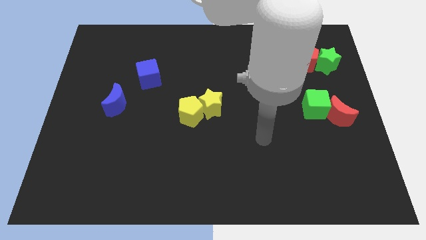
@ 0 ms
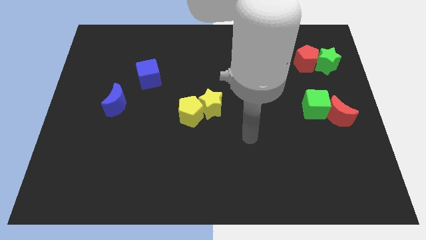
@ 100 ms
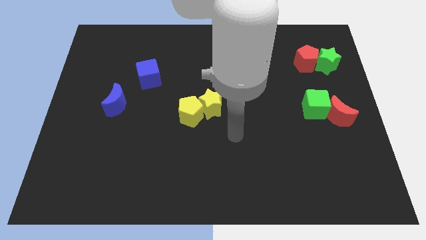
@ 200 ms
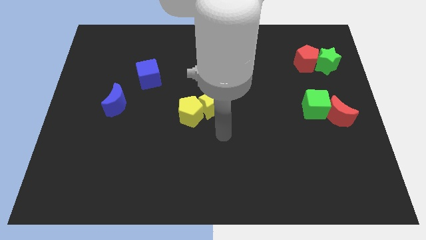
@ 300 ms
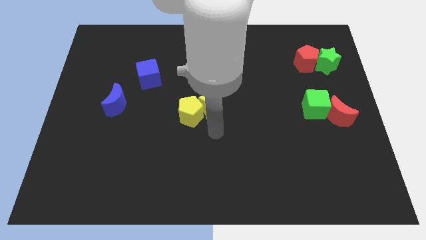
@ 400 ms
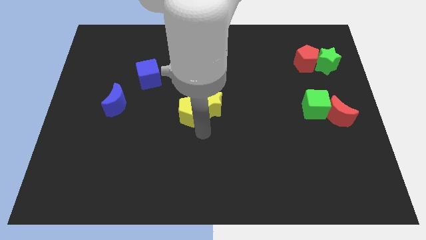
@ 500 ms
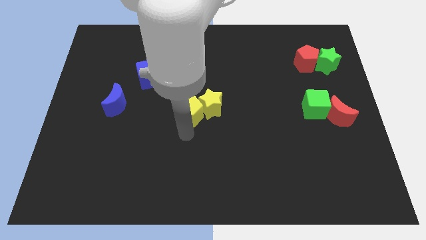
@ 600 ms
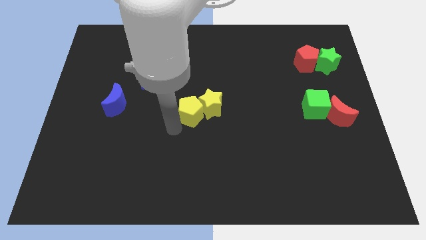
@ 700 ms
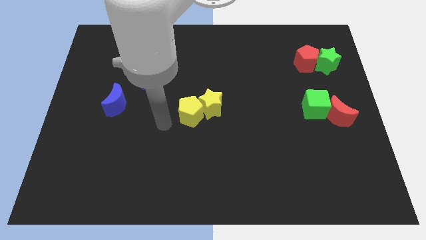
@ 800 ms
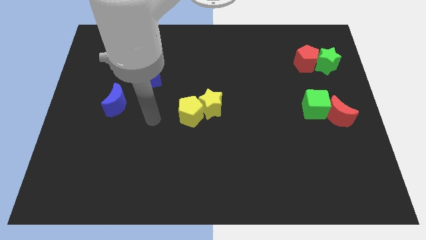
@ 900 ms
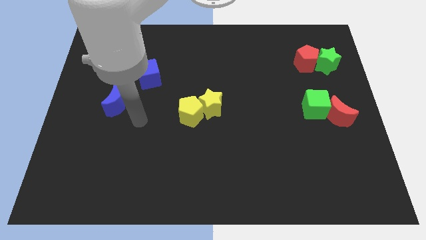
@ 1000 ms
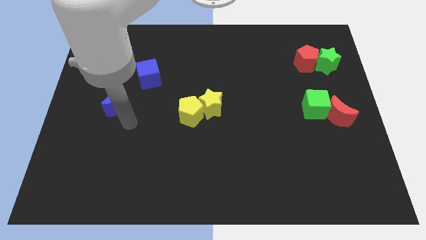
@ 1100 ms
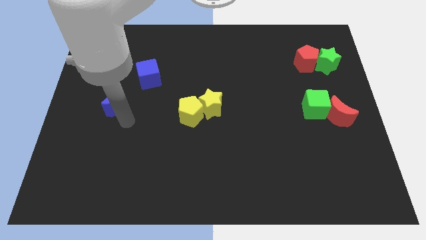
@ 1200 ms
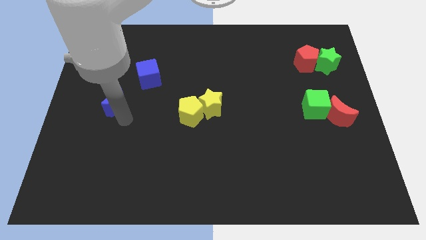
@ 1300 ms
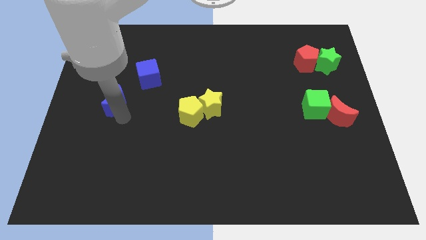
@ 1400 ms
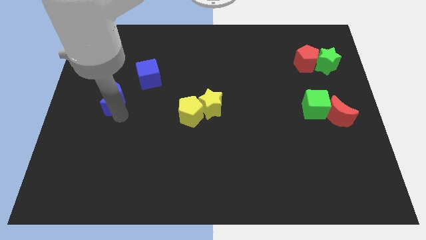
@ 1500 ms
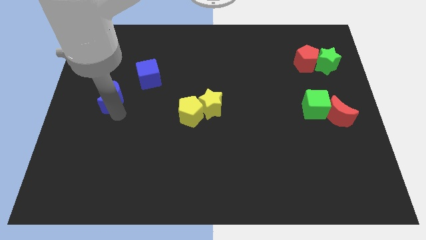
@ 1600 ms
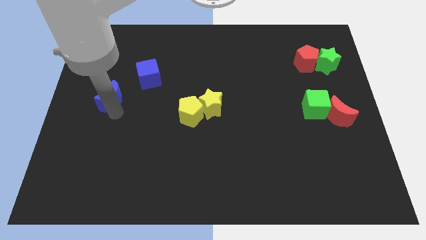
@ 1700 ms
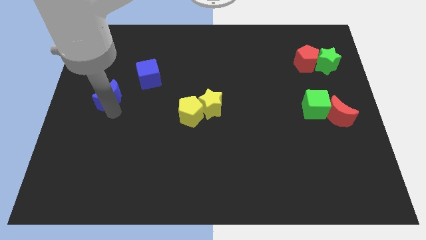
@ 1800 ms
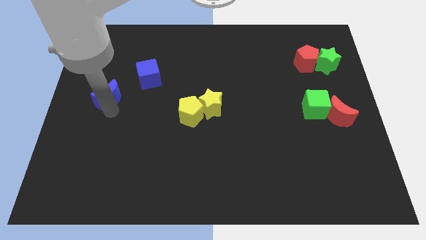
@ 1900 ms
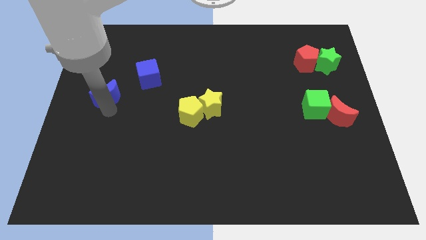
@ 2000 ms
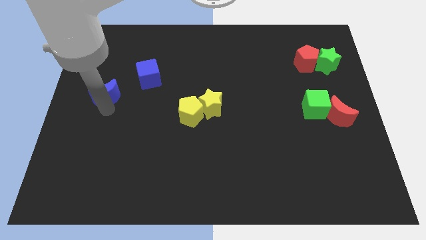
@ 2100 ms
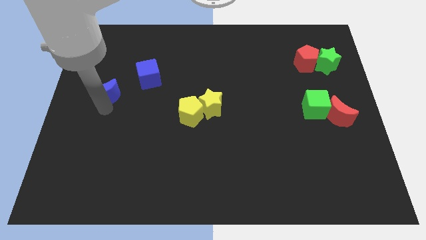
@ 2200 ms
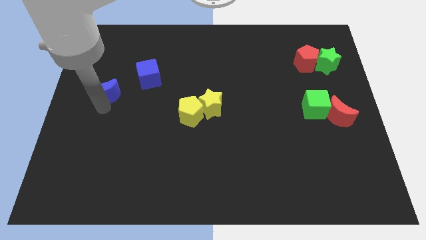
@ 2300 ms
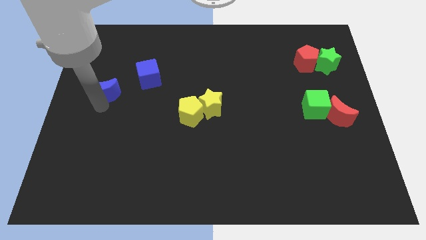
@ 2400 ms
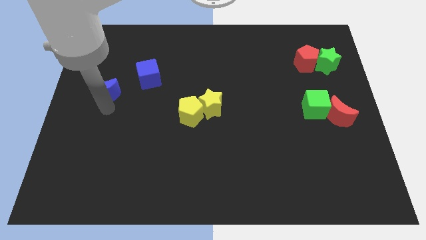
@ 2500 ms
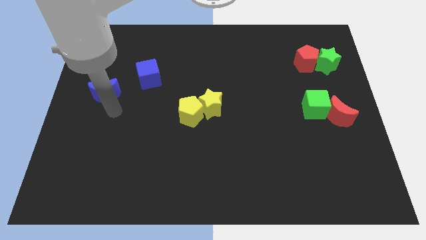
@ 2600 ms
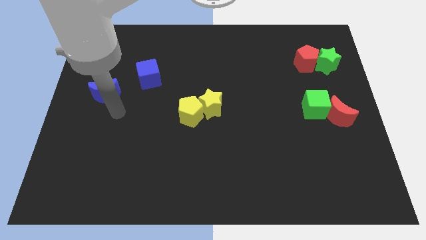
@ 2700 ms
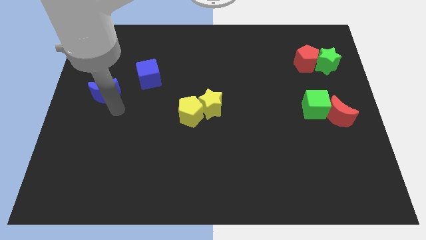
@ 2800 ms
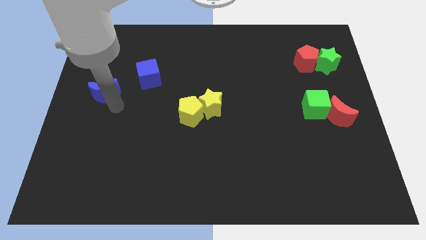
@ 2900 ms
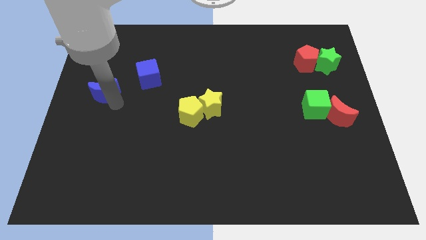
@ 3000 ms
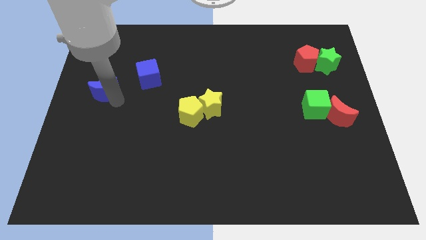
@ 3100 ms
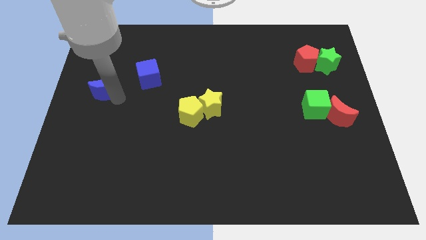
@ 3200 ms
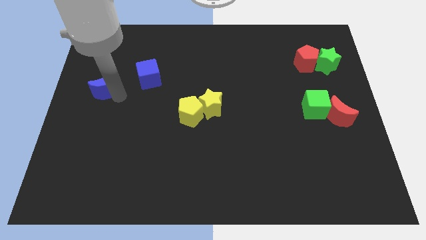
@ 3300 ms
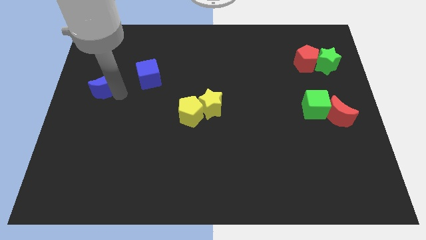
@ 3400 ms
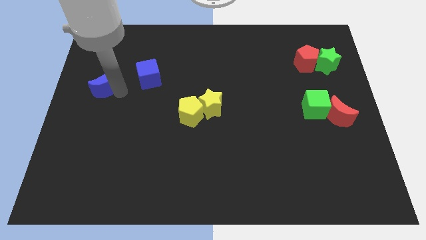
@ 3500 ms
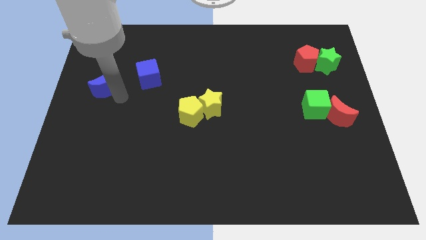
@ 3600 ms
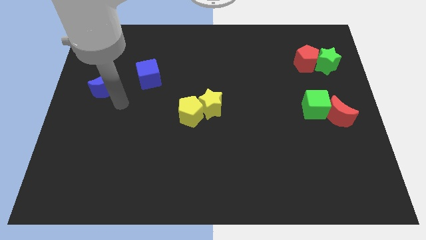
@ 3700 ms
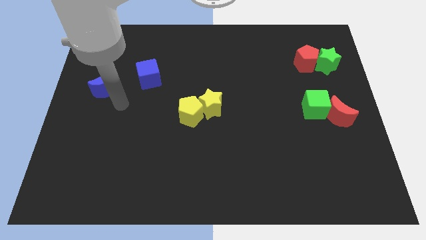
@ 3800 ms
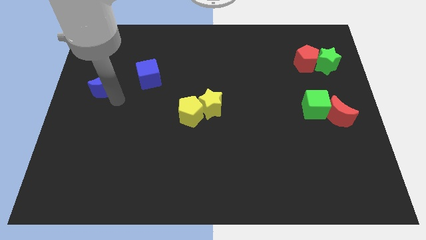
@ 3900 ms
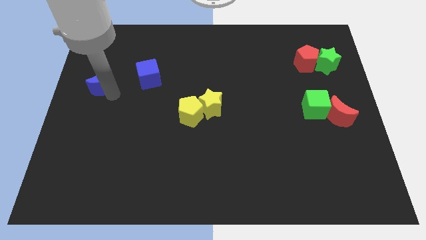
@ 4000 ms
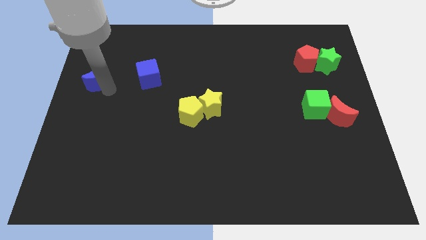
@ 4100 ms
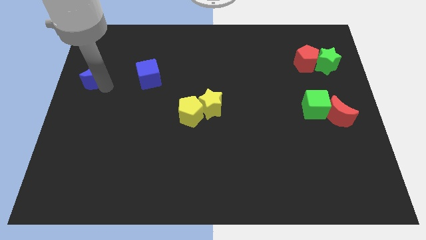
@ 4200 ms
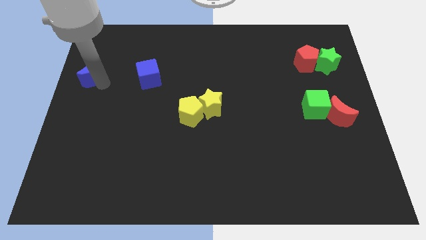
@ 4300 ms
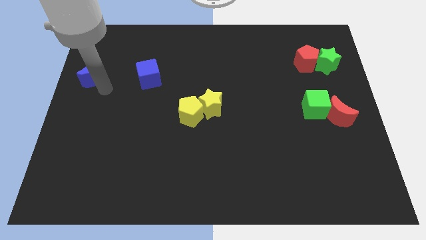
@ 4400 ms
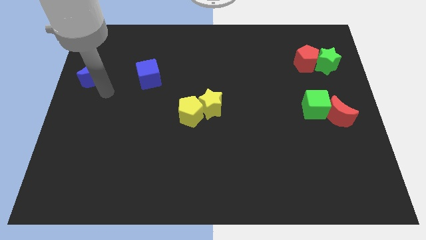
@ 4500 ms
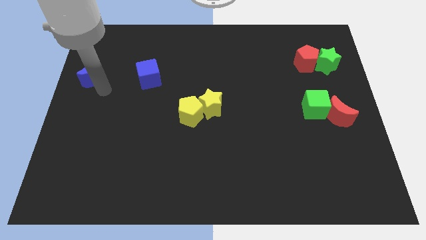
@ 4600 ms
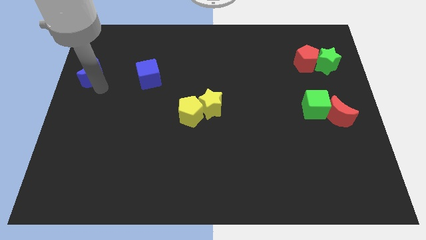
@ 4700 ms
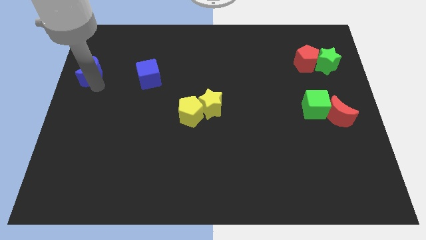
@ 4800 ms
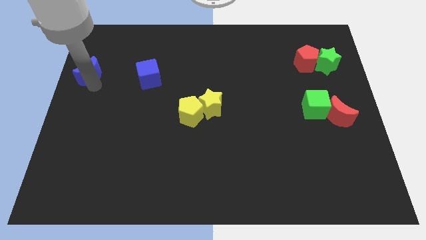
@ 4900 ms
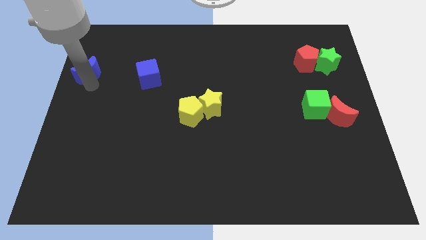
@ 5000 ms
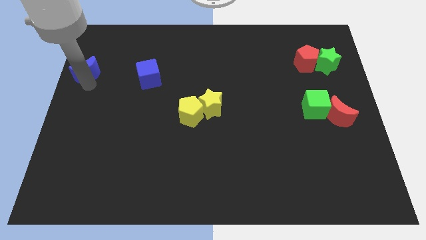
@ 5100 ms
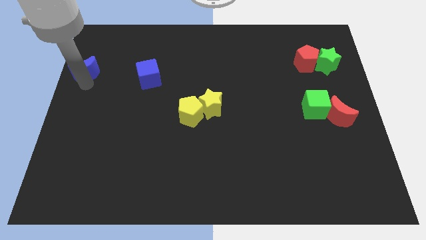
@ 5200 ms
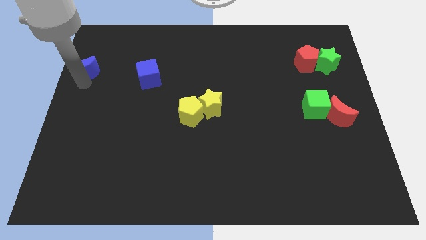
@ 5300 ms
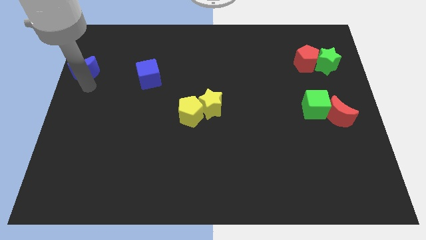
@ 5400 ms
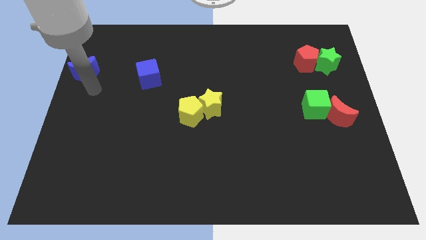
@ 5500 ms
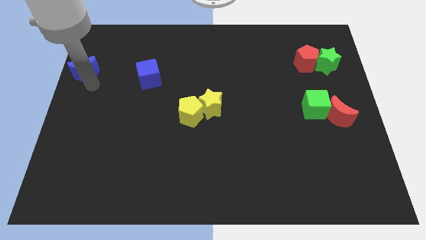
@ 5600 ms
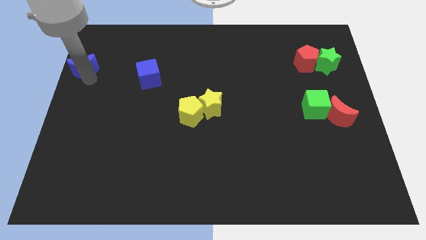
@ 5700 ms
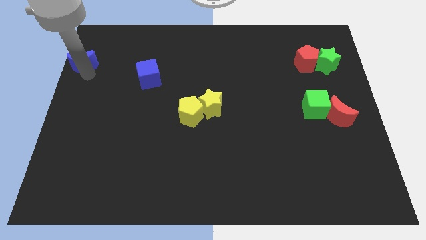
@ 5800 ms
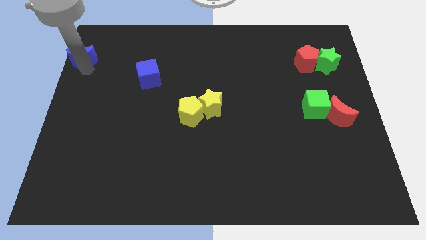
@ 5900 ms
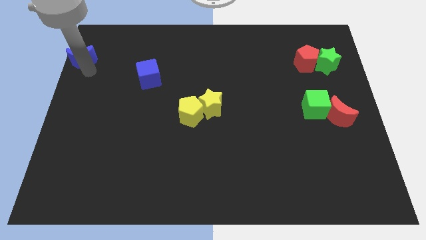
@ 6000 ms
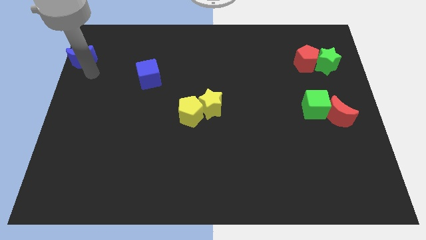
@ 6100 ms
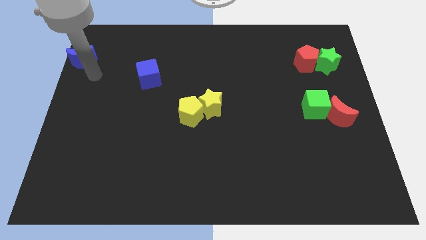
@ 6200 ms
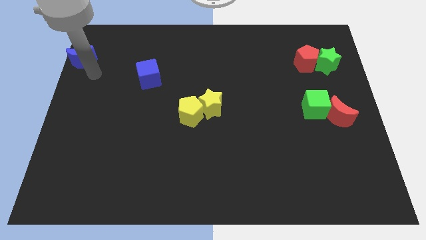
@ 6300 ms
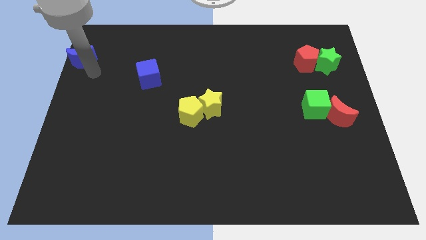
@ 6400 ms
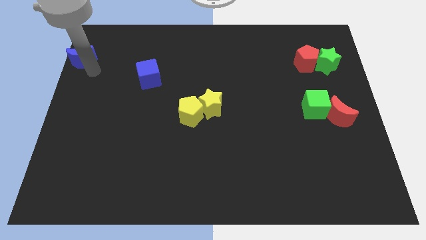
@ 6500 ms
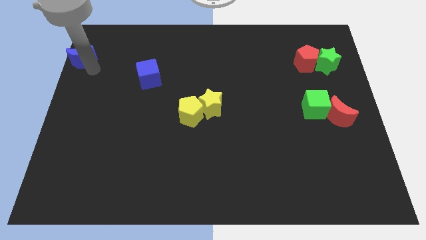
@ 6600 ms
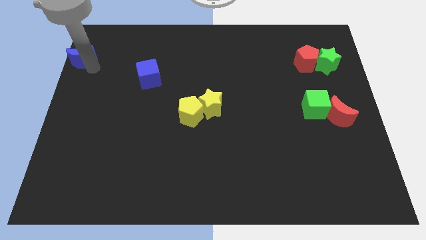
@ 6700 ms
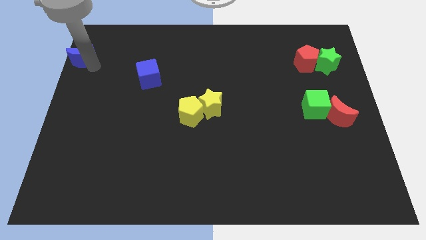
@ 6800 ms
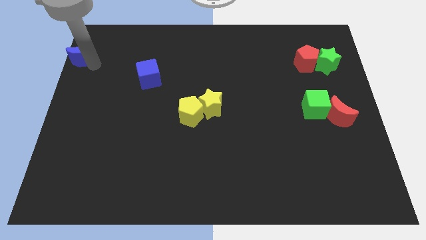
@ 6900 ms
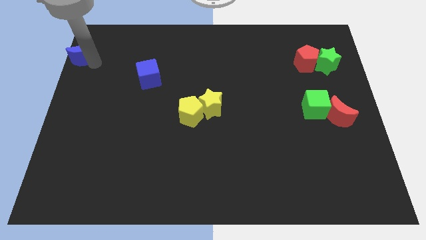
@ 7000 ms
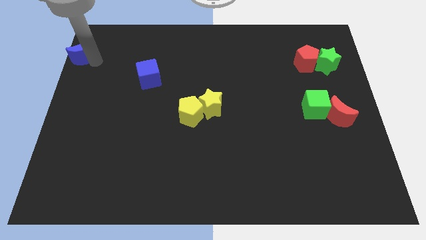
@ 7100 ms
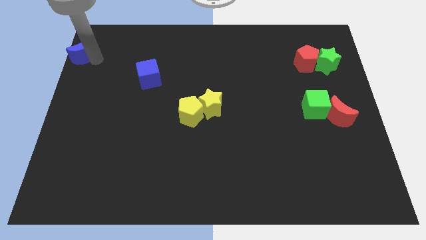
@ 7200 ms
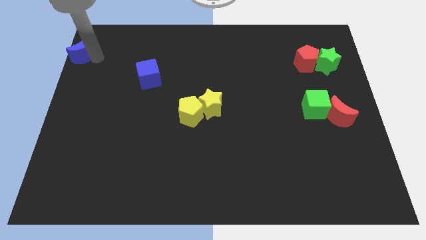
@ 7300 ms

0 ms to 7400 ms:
slide the blue moon to the top left of the board
